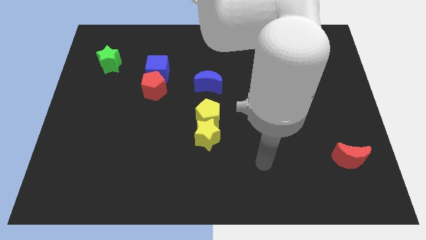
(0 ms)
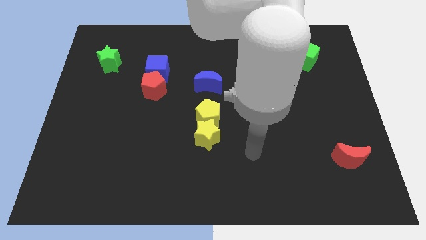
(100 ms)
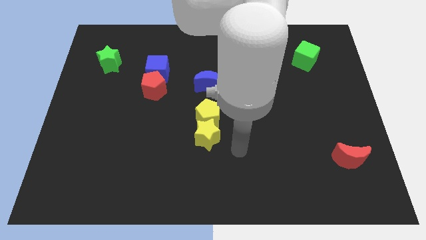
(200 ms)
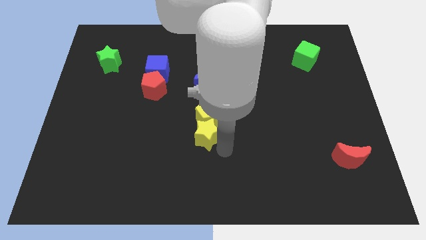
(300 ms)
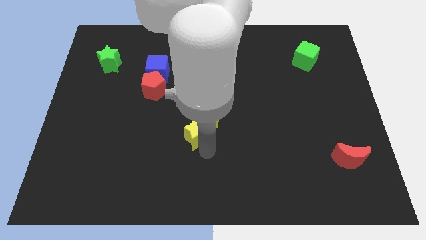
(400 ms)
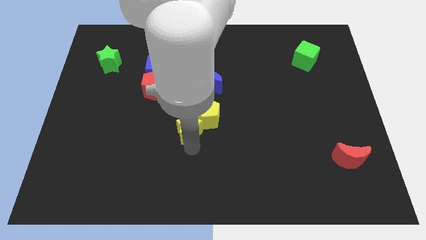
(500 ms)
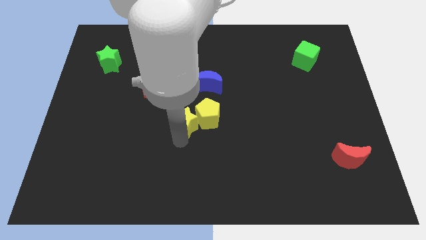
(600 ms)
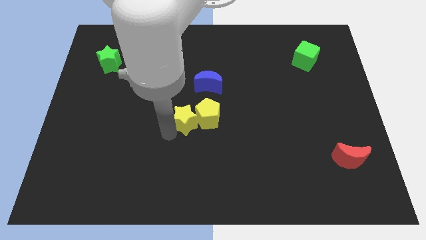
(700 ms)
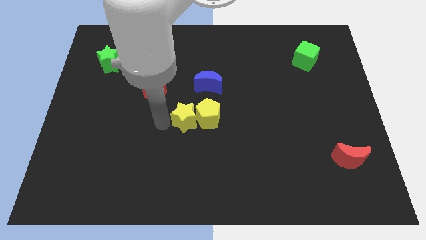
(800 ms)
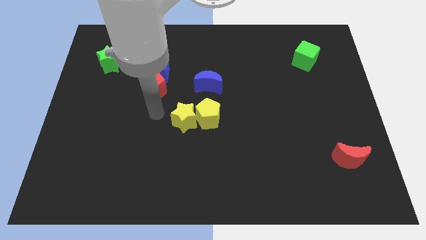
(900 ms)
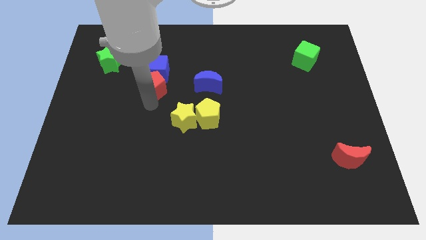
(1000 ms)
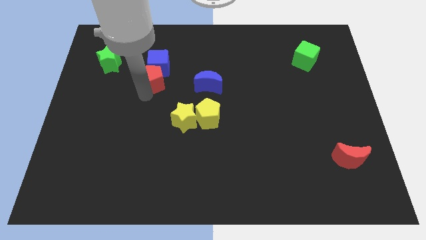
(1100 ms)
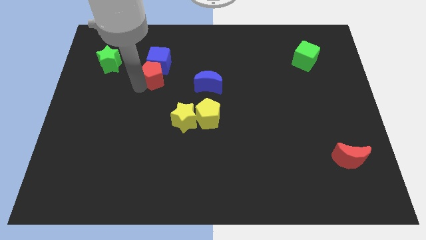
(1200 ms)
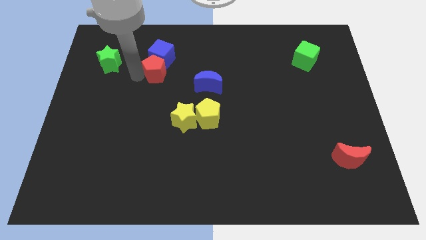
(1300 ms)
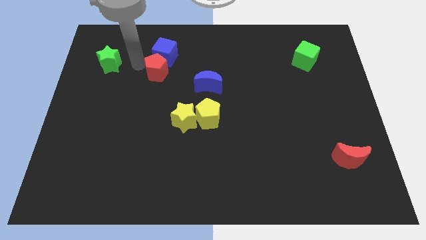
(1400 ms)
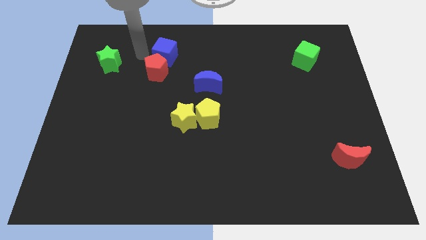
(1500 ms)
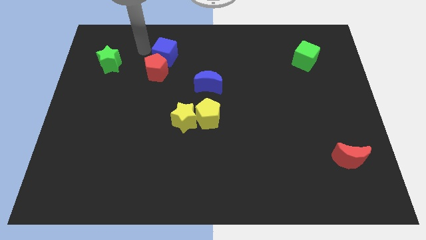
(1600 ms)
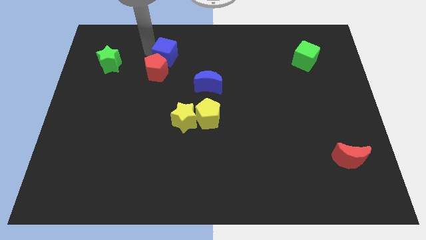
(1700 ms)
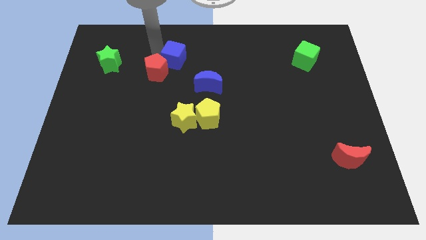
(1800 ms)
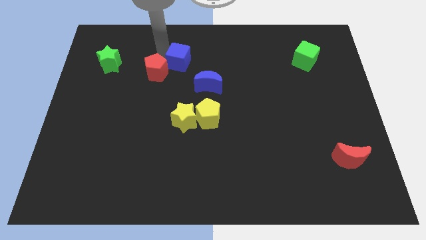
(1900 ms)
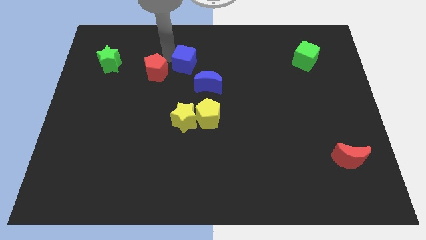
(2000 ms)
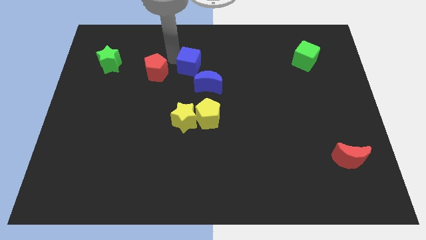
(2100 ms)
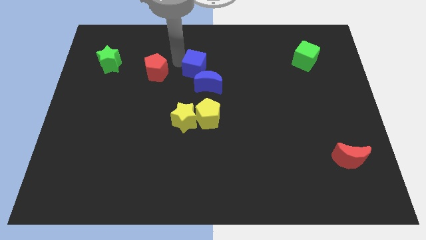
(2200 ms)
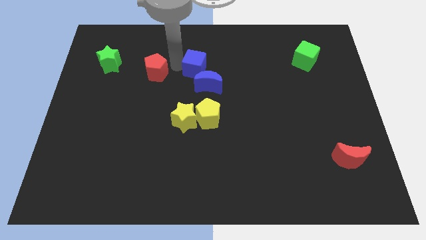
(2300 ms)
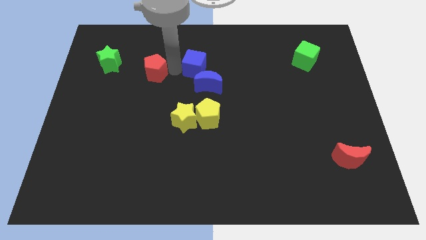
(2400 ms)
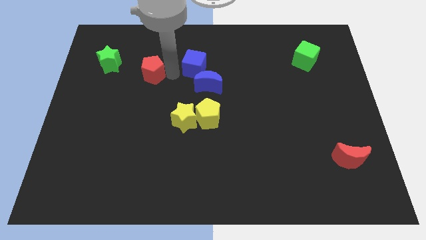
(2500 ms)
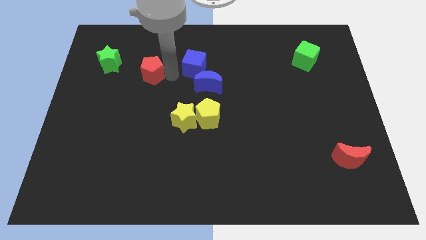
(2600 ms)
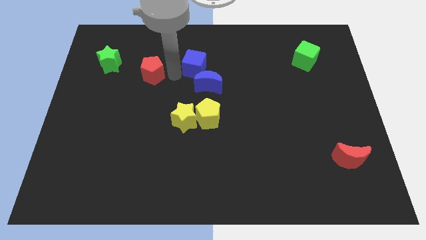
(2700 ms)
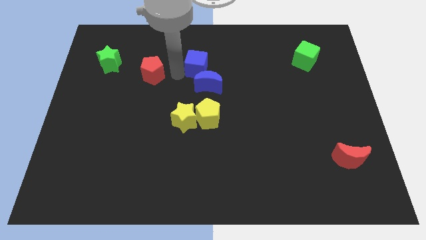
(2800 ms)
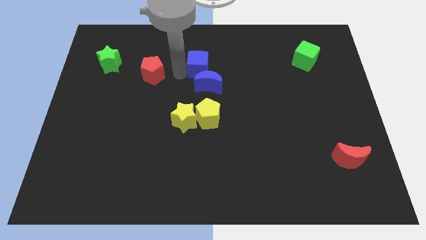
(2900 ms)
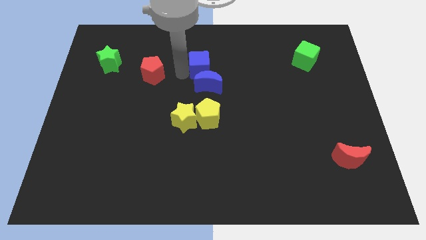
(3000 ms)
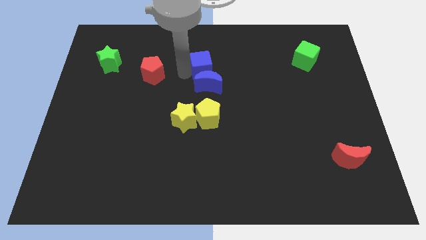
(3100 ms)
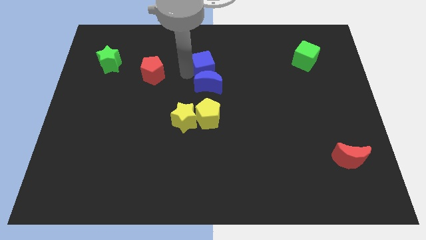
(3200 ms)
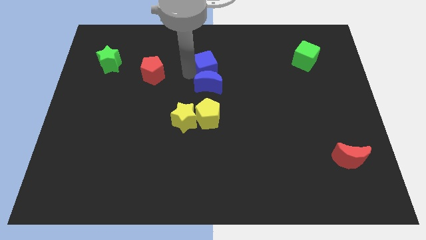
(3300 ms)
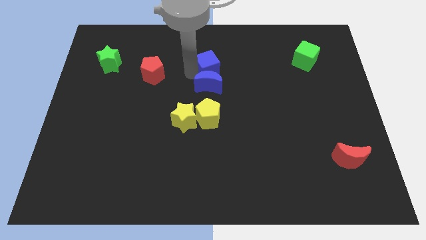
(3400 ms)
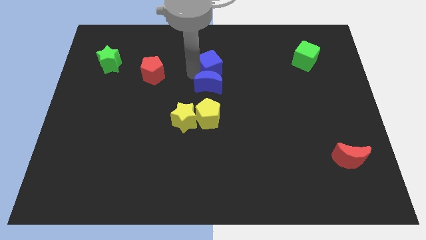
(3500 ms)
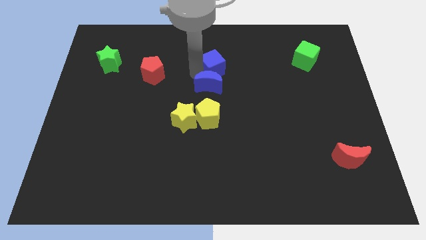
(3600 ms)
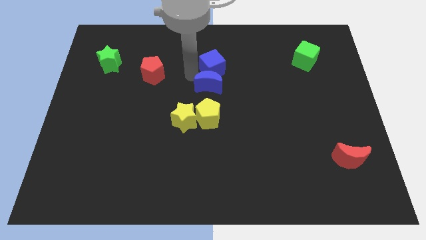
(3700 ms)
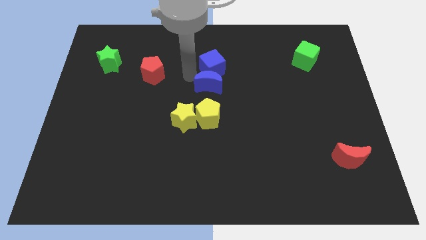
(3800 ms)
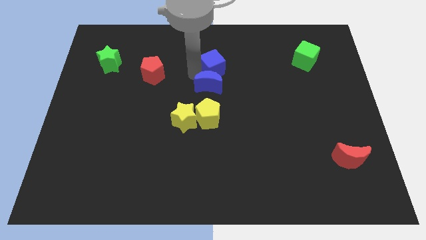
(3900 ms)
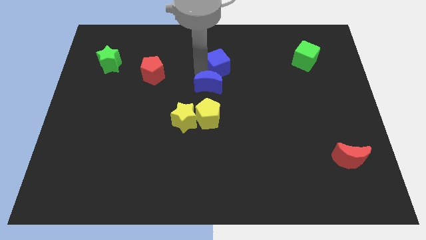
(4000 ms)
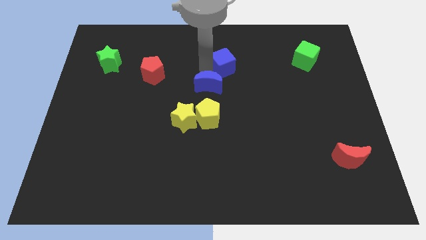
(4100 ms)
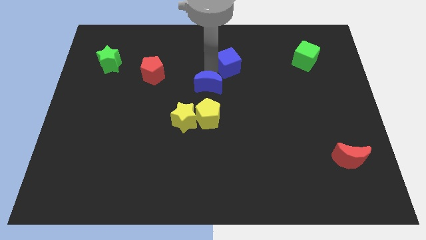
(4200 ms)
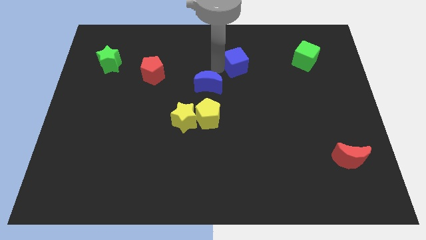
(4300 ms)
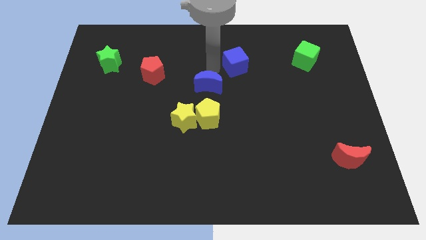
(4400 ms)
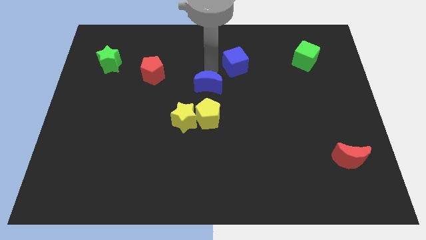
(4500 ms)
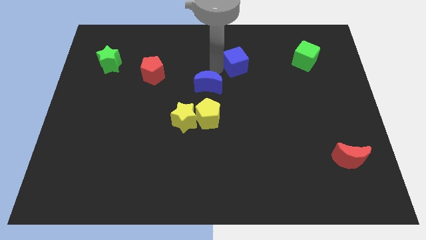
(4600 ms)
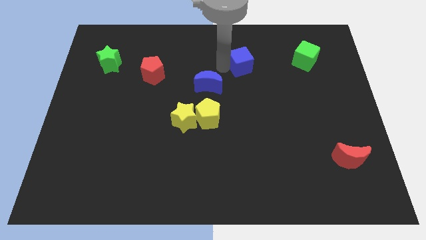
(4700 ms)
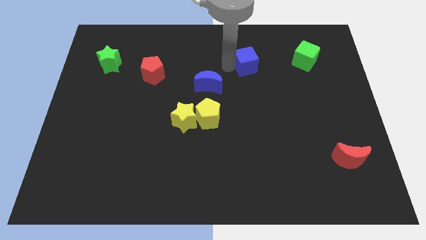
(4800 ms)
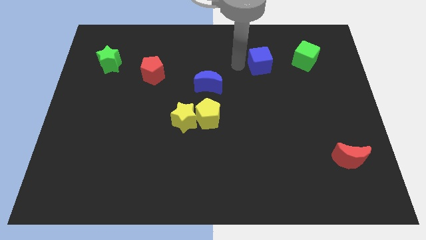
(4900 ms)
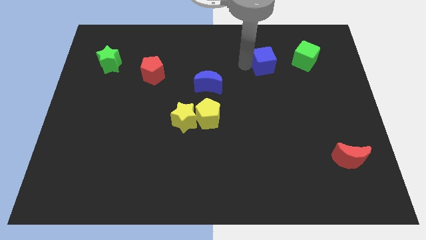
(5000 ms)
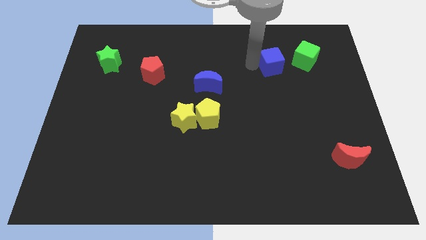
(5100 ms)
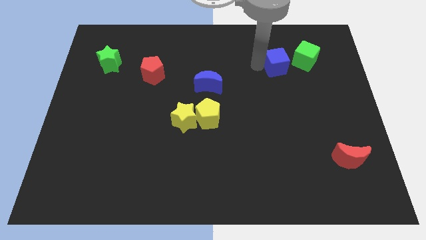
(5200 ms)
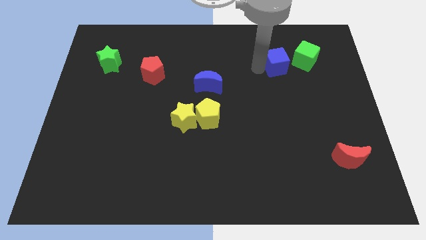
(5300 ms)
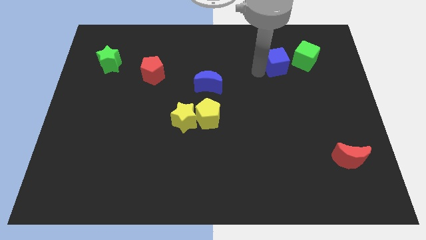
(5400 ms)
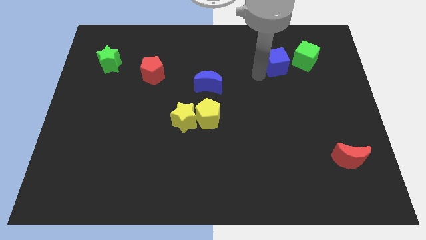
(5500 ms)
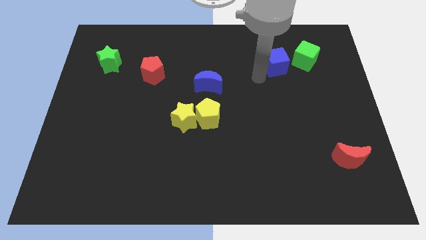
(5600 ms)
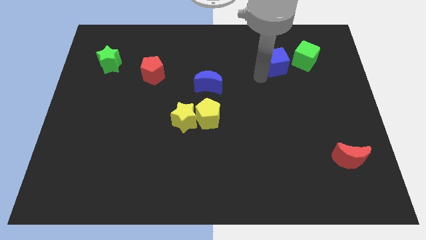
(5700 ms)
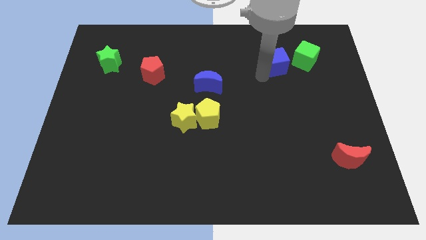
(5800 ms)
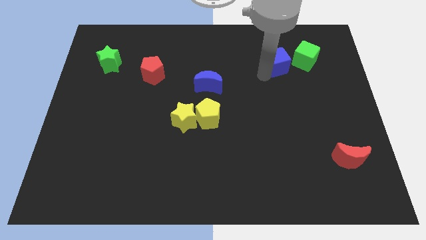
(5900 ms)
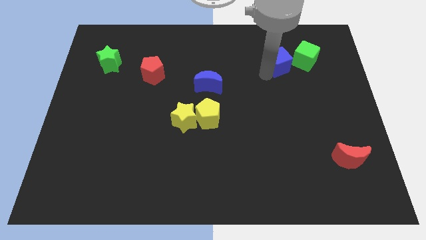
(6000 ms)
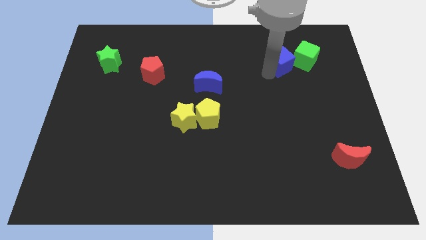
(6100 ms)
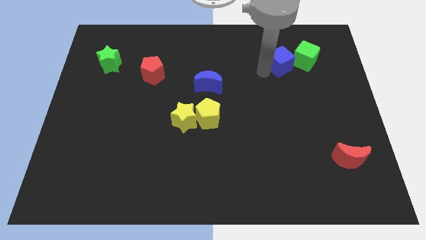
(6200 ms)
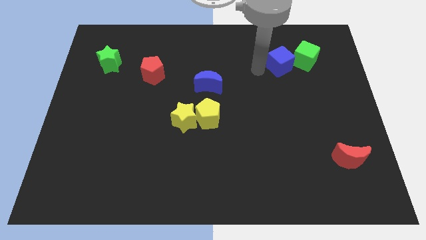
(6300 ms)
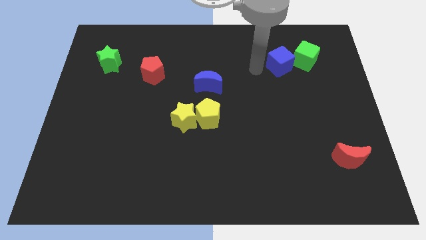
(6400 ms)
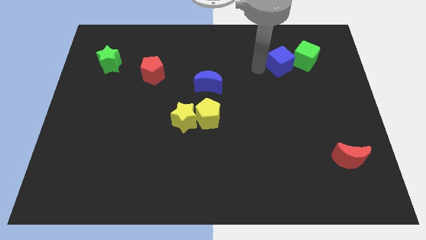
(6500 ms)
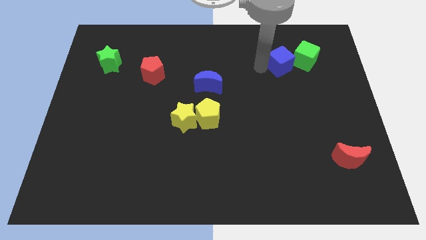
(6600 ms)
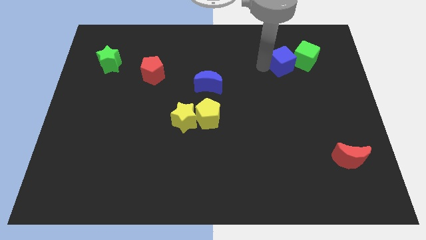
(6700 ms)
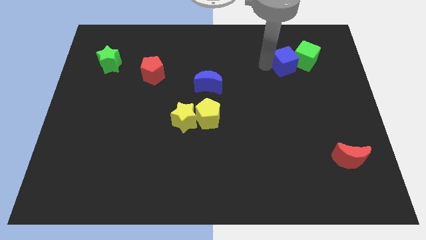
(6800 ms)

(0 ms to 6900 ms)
move the blue cube close to the green cube
